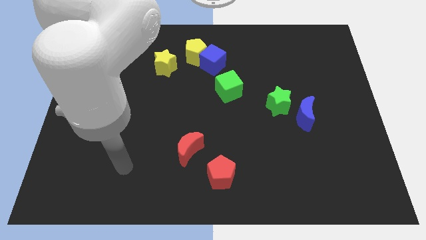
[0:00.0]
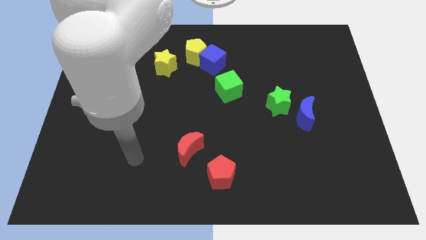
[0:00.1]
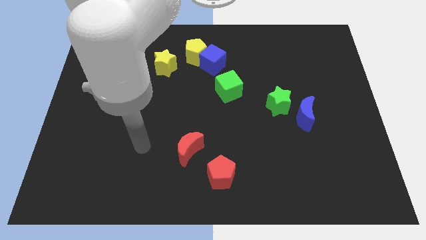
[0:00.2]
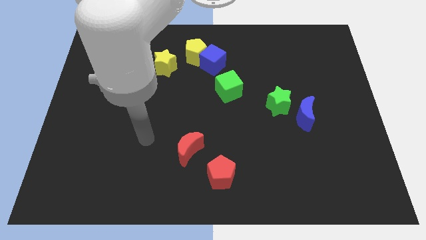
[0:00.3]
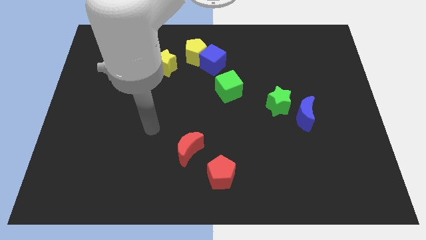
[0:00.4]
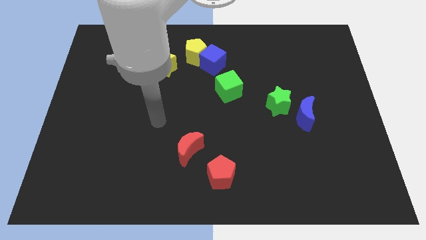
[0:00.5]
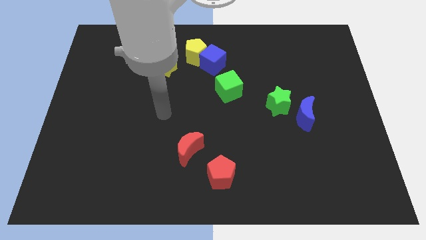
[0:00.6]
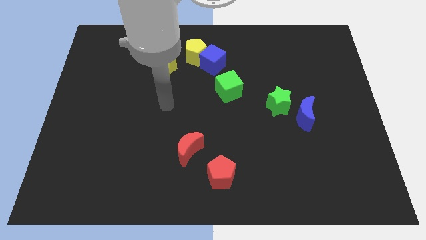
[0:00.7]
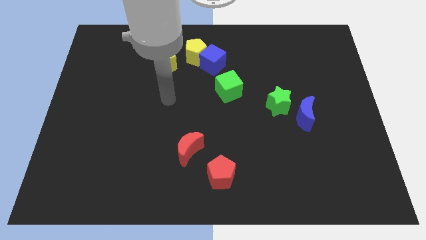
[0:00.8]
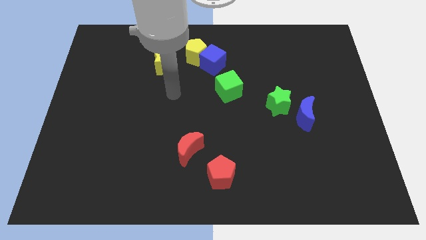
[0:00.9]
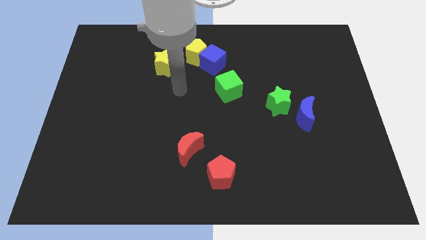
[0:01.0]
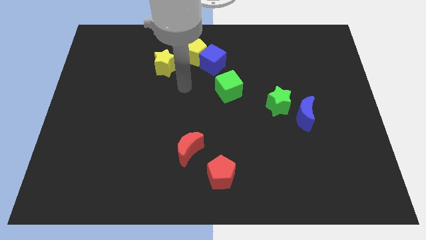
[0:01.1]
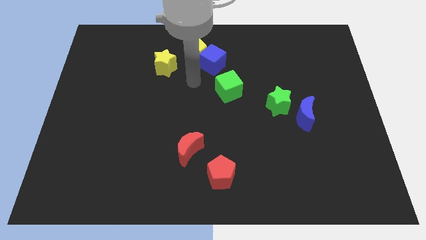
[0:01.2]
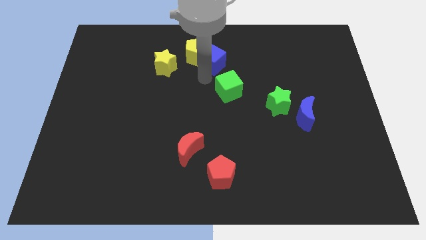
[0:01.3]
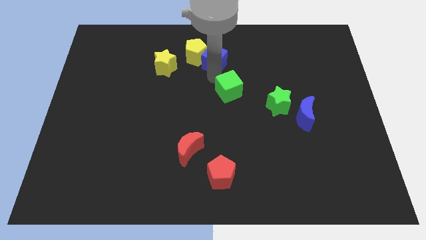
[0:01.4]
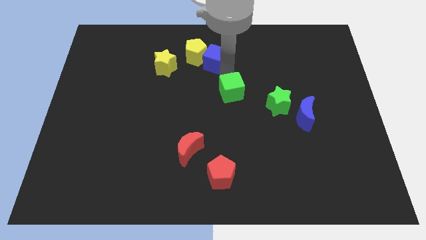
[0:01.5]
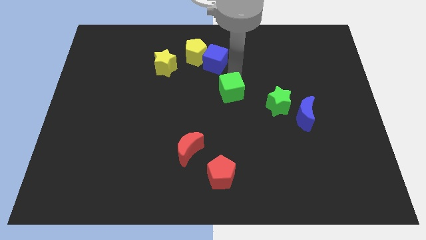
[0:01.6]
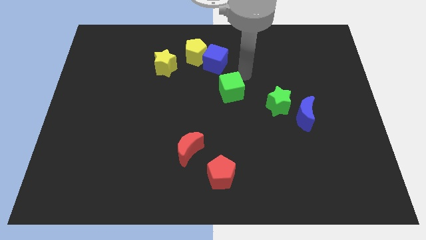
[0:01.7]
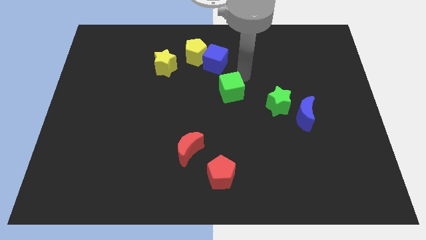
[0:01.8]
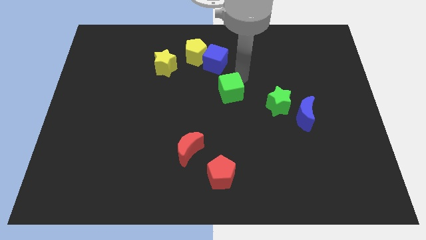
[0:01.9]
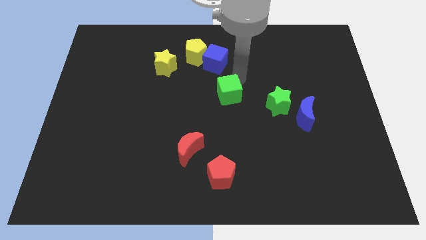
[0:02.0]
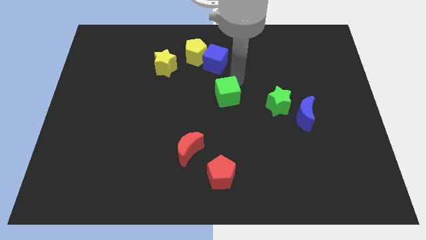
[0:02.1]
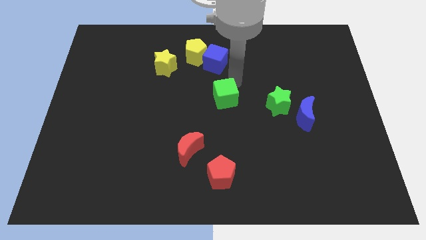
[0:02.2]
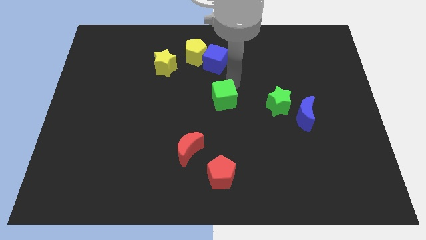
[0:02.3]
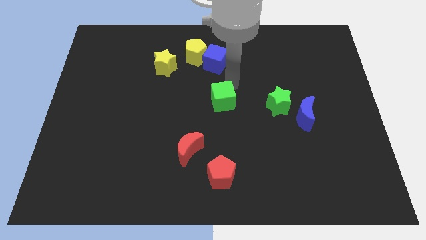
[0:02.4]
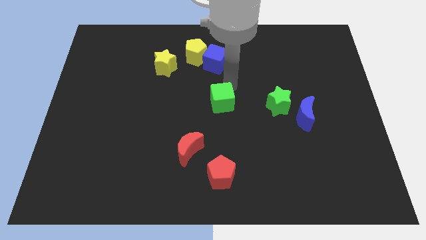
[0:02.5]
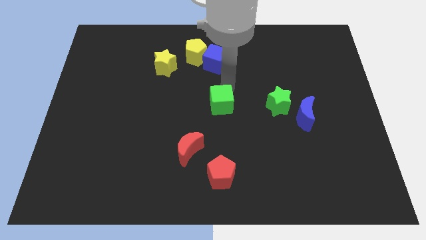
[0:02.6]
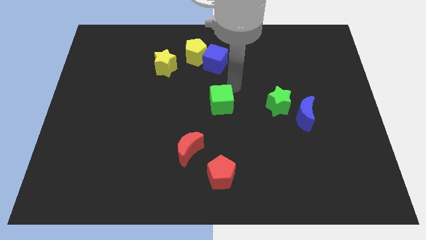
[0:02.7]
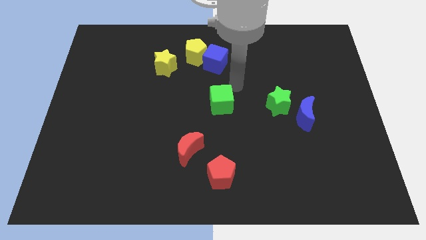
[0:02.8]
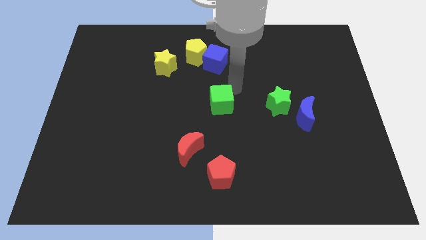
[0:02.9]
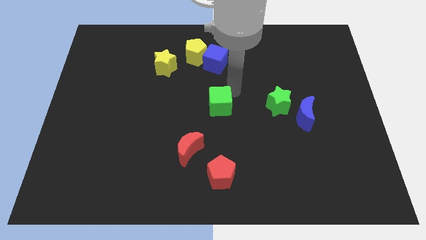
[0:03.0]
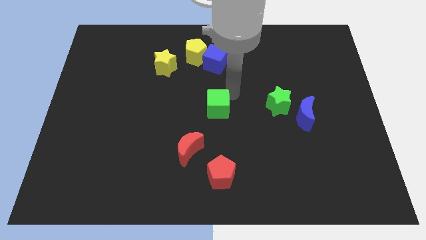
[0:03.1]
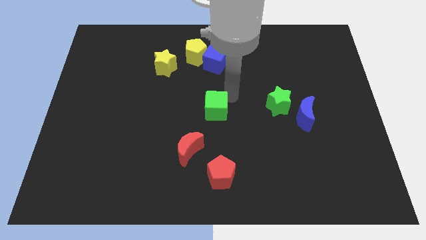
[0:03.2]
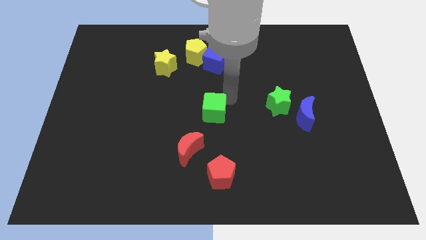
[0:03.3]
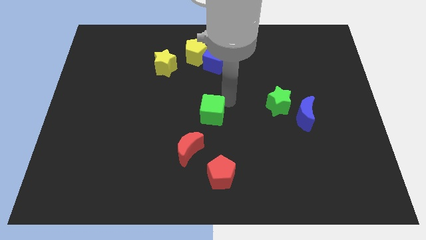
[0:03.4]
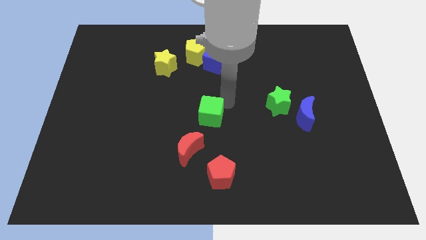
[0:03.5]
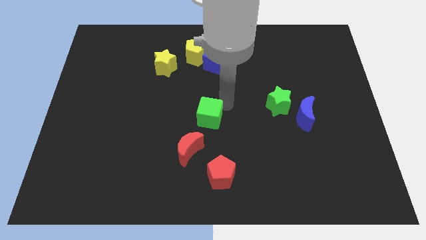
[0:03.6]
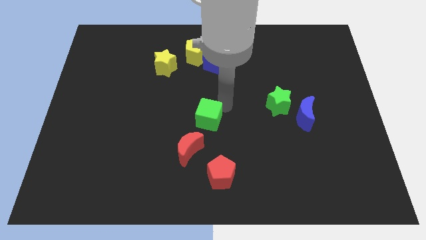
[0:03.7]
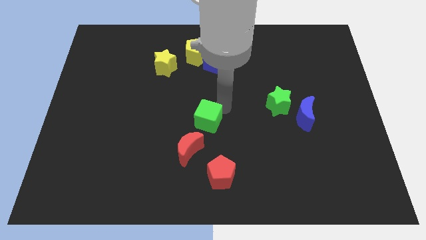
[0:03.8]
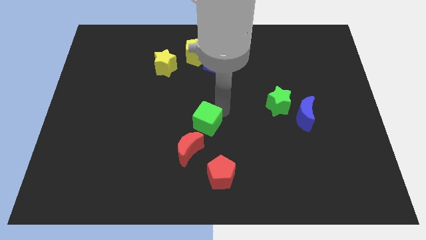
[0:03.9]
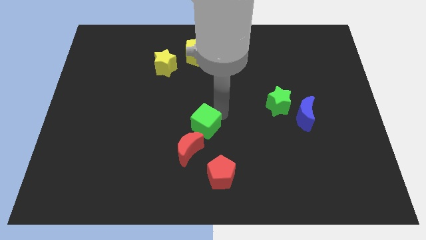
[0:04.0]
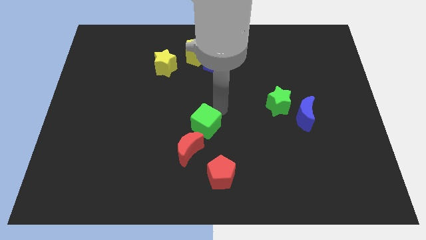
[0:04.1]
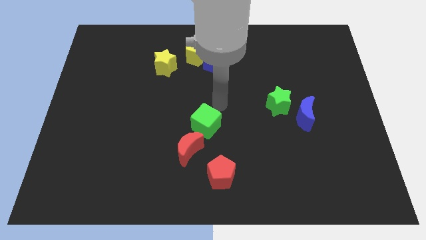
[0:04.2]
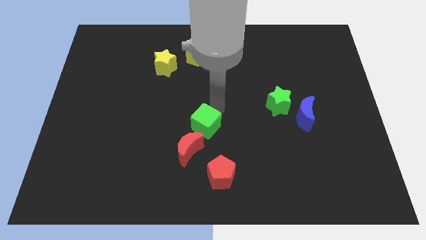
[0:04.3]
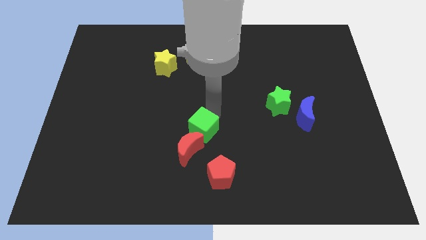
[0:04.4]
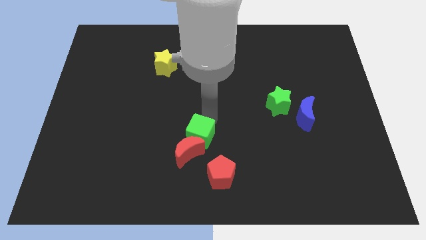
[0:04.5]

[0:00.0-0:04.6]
slide the green cube close to the red moon

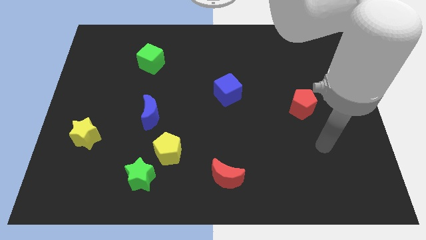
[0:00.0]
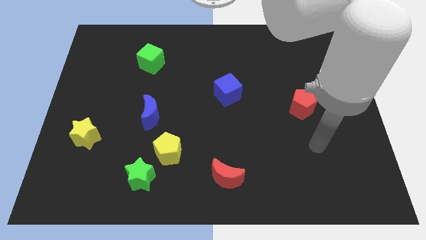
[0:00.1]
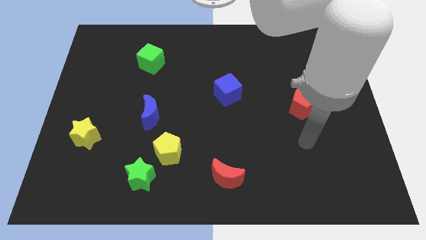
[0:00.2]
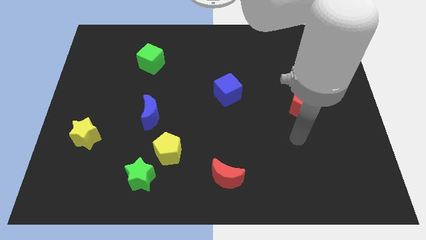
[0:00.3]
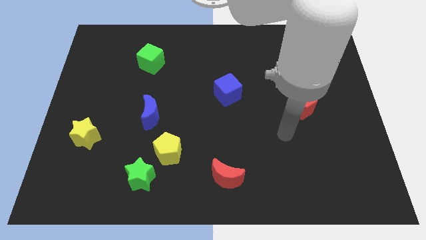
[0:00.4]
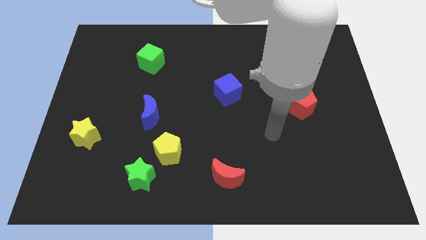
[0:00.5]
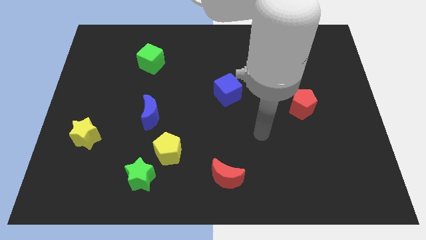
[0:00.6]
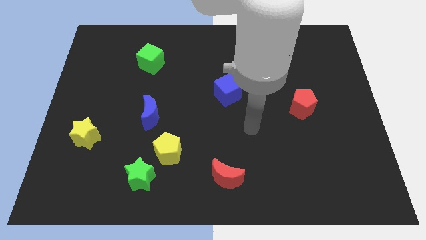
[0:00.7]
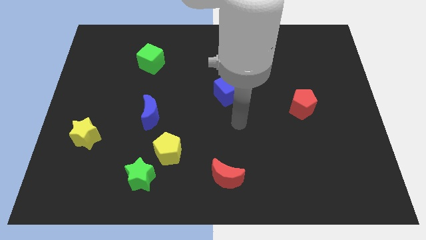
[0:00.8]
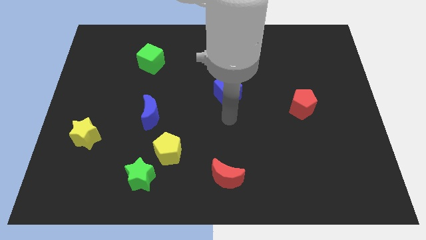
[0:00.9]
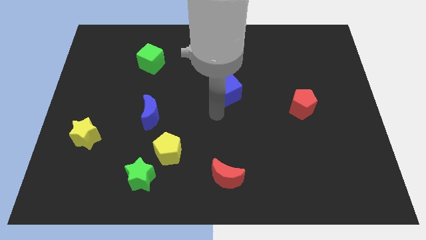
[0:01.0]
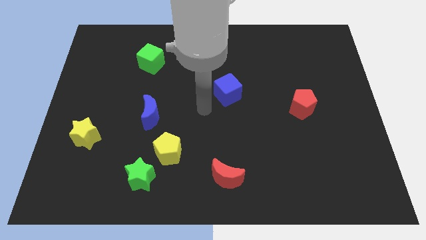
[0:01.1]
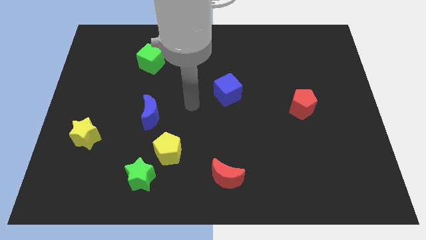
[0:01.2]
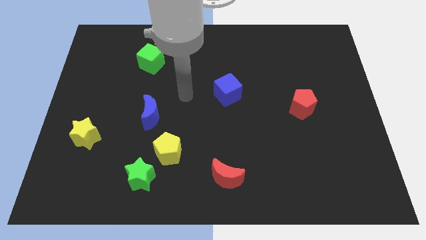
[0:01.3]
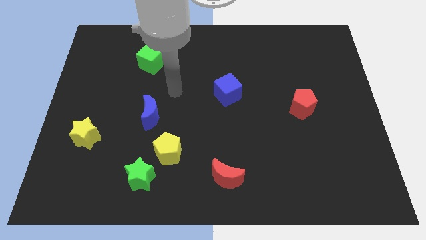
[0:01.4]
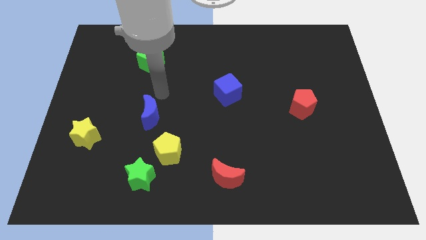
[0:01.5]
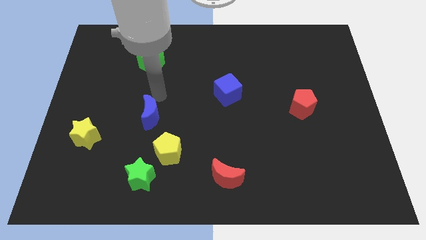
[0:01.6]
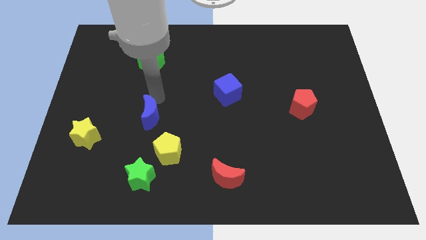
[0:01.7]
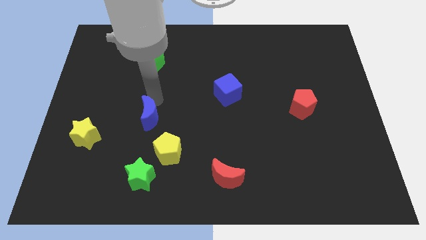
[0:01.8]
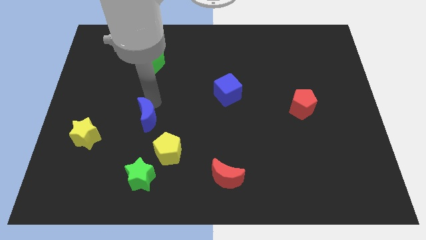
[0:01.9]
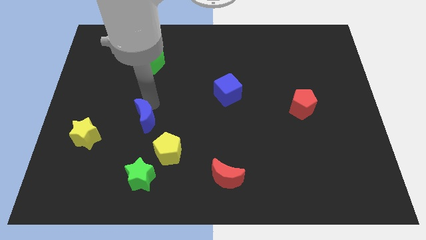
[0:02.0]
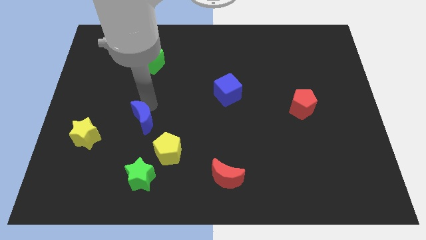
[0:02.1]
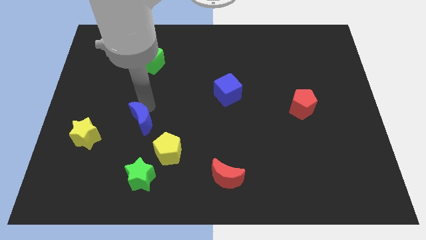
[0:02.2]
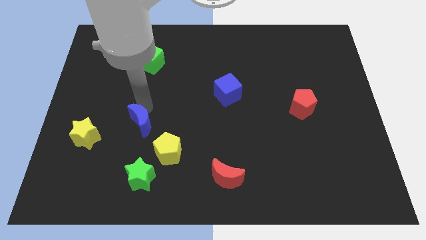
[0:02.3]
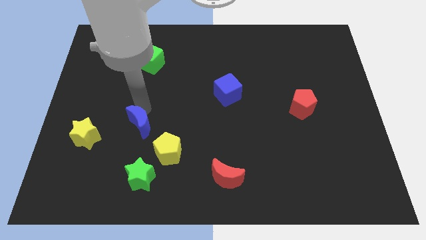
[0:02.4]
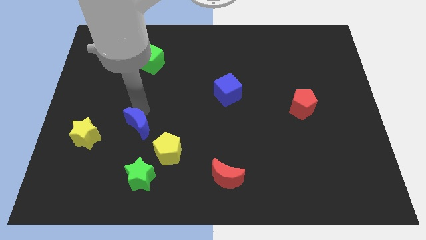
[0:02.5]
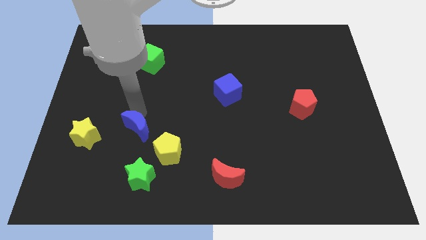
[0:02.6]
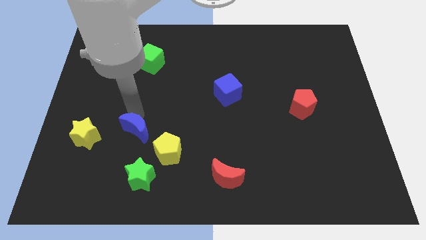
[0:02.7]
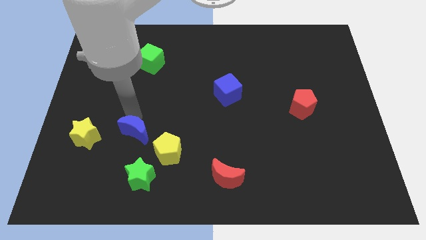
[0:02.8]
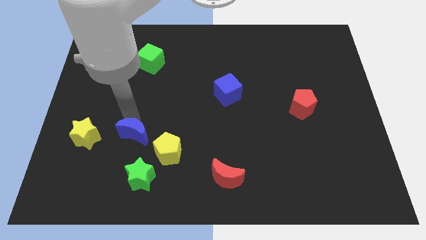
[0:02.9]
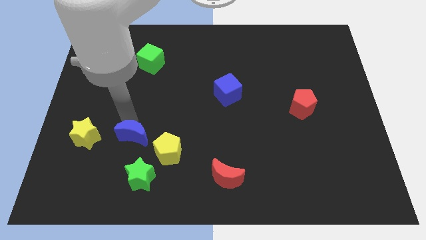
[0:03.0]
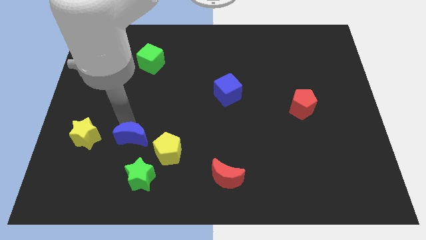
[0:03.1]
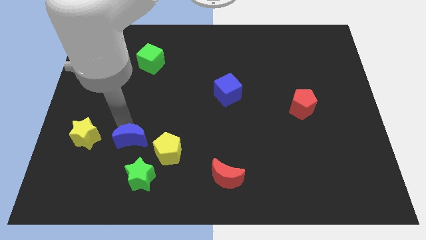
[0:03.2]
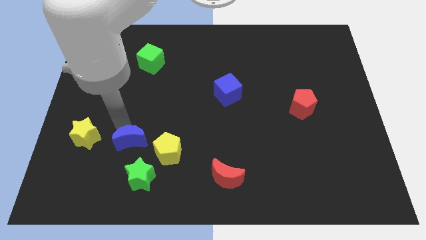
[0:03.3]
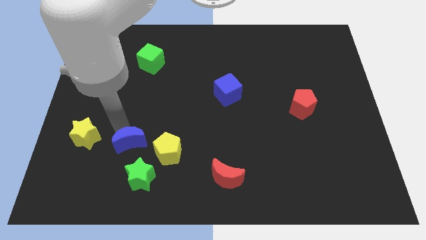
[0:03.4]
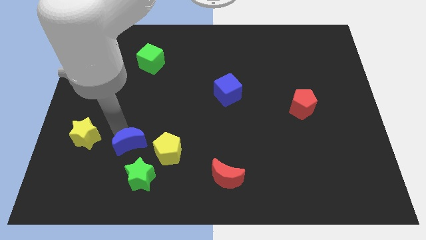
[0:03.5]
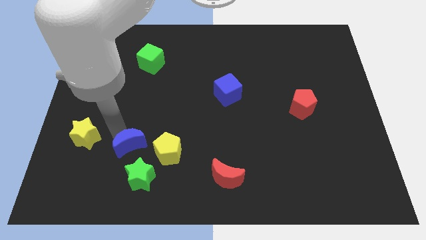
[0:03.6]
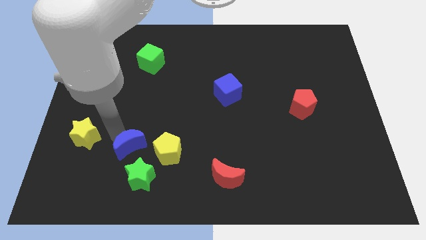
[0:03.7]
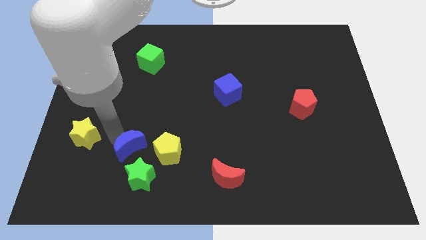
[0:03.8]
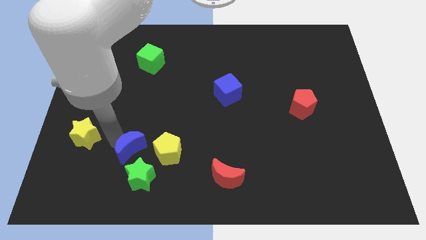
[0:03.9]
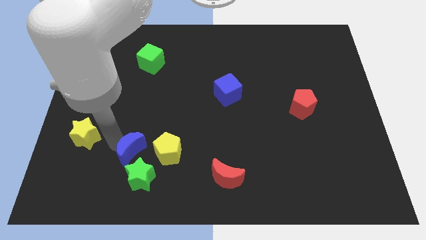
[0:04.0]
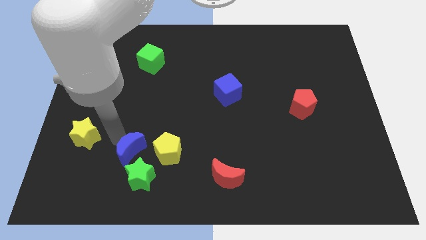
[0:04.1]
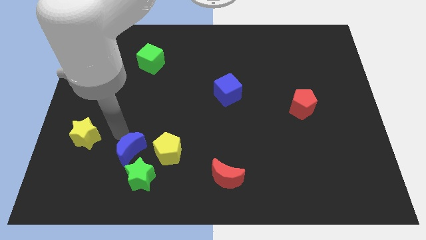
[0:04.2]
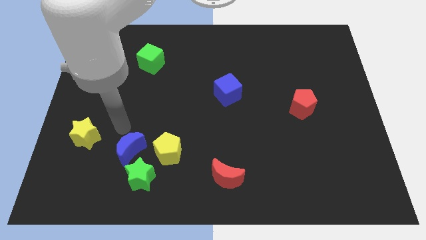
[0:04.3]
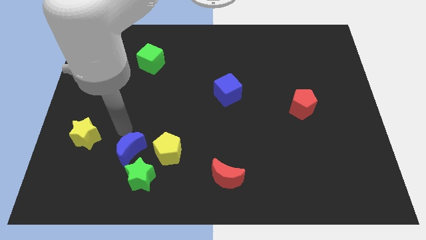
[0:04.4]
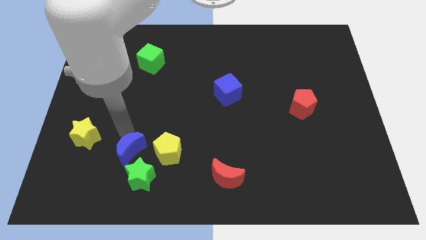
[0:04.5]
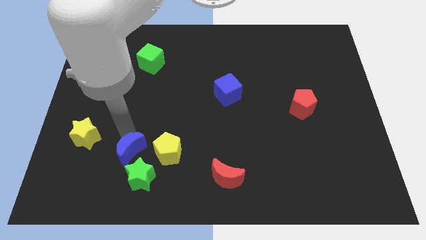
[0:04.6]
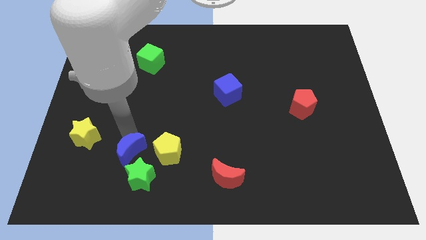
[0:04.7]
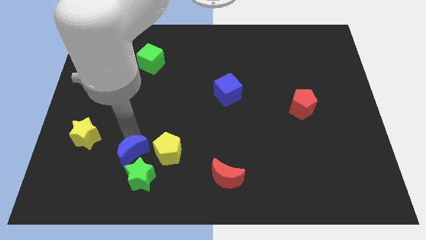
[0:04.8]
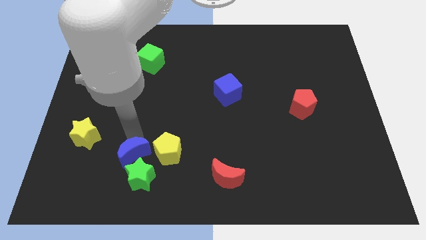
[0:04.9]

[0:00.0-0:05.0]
move the blue moon next to the green star
